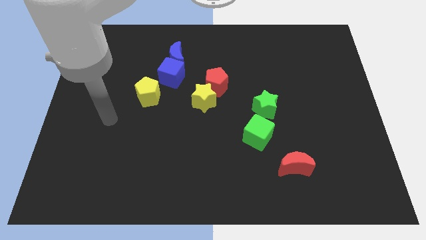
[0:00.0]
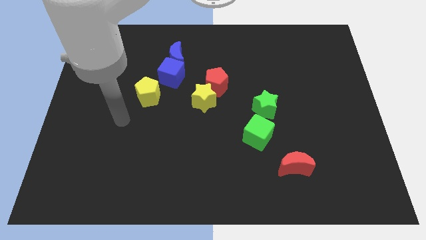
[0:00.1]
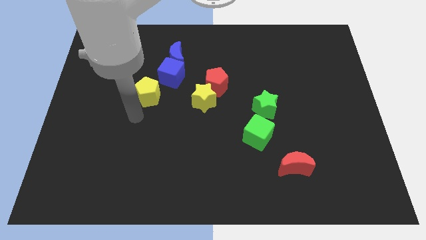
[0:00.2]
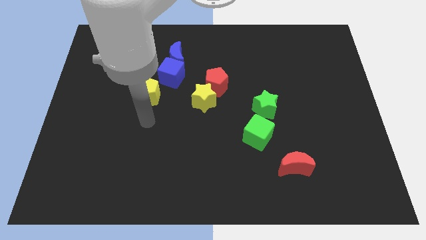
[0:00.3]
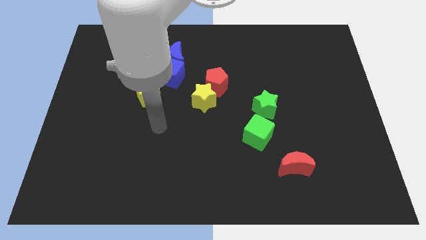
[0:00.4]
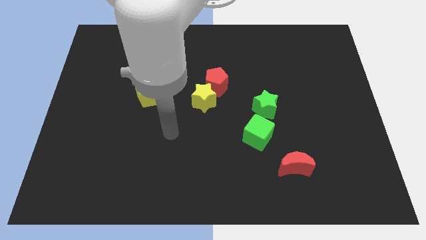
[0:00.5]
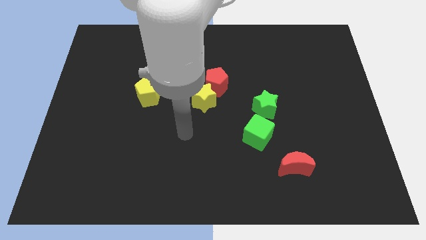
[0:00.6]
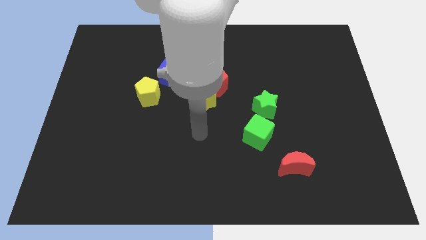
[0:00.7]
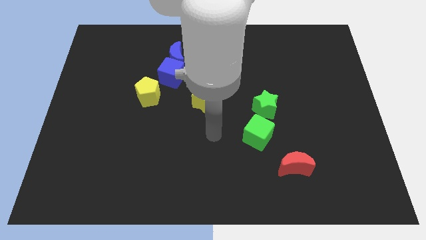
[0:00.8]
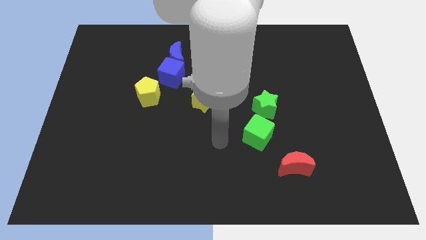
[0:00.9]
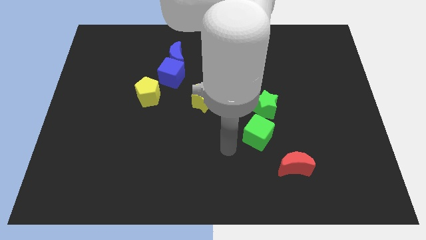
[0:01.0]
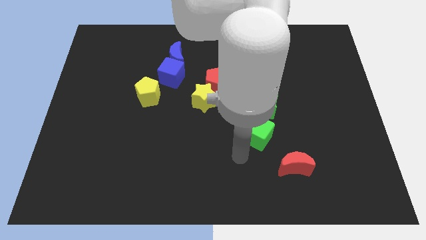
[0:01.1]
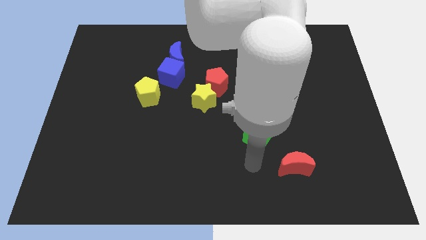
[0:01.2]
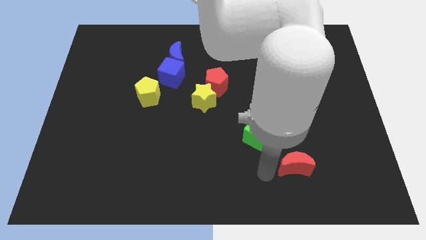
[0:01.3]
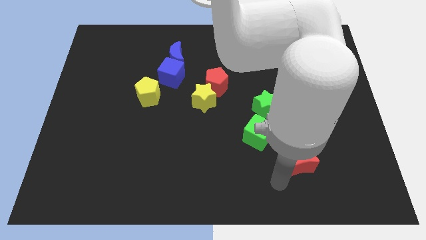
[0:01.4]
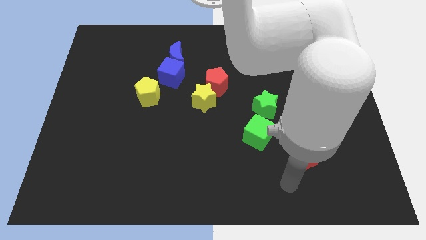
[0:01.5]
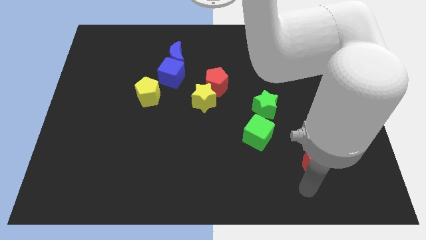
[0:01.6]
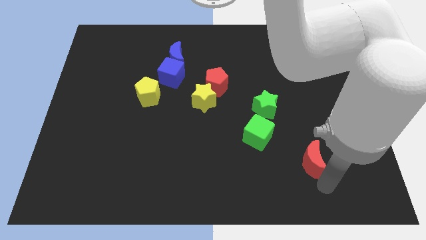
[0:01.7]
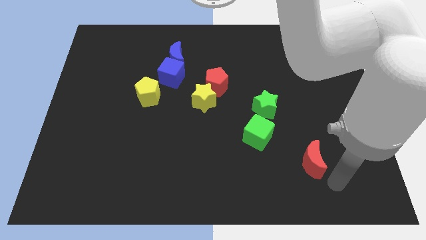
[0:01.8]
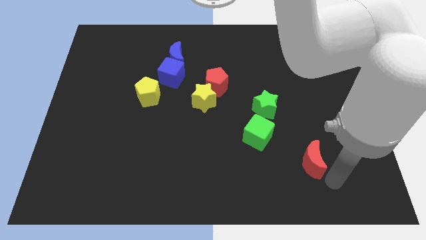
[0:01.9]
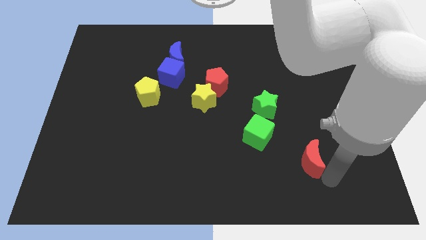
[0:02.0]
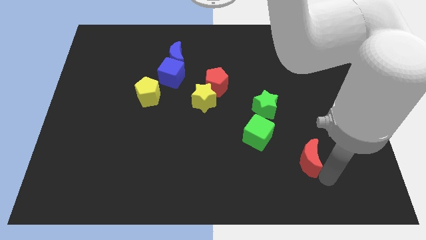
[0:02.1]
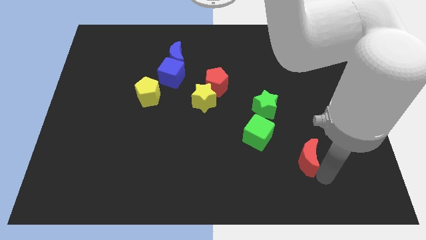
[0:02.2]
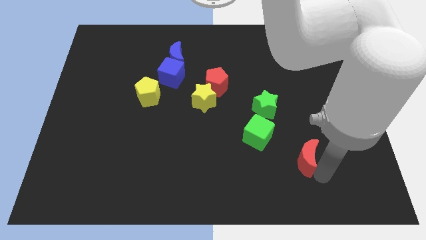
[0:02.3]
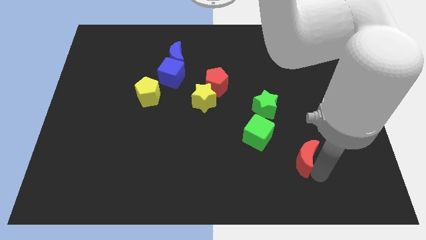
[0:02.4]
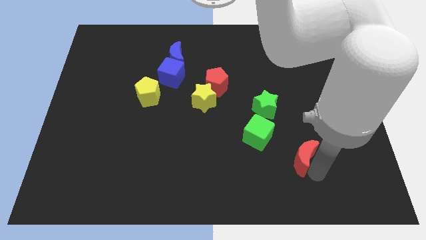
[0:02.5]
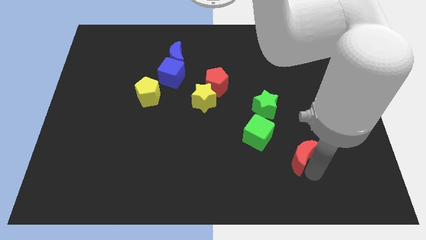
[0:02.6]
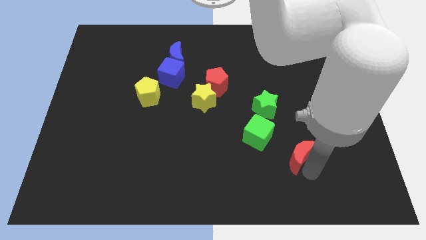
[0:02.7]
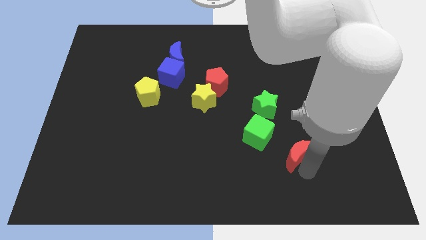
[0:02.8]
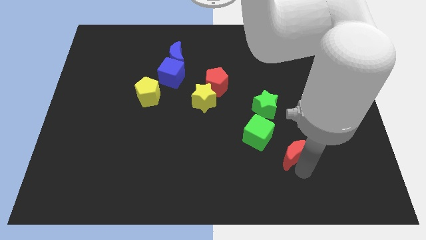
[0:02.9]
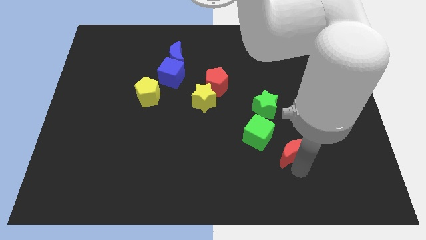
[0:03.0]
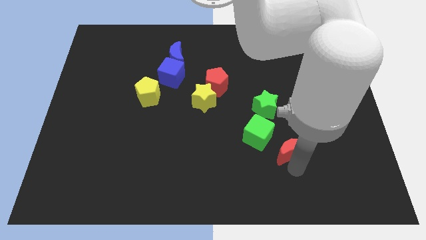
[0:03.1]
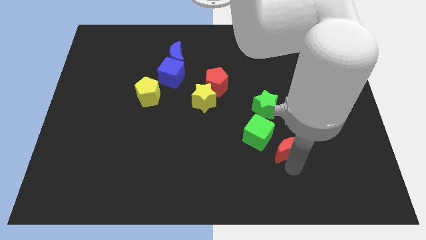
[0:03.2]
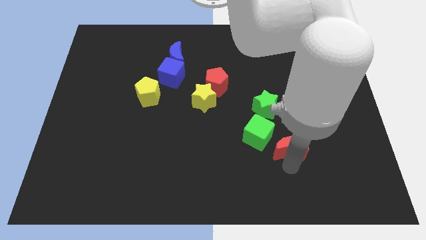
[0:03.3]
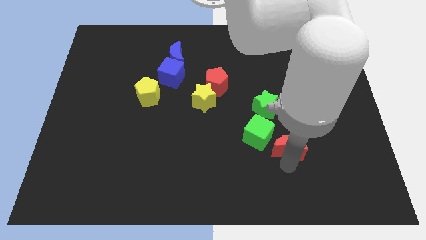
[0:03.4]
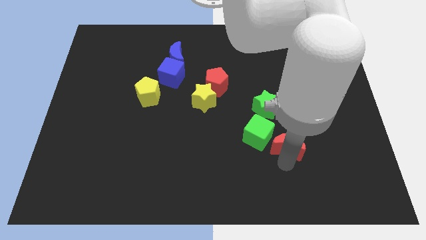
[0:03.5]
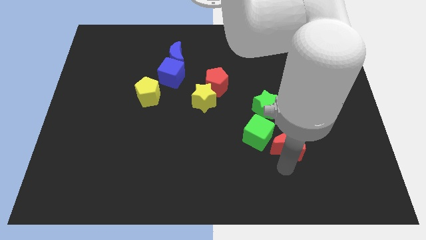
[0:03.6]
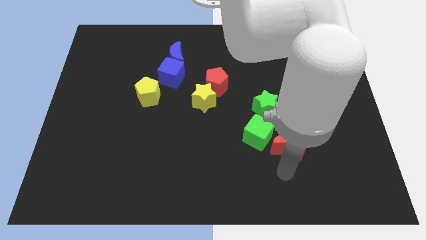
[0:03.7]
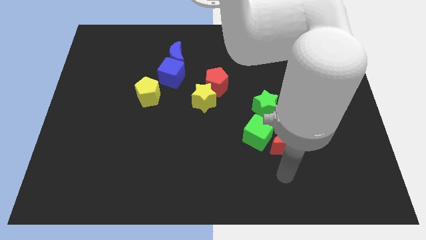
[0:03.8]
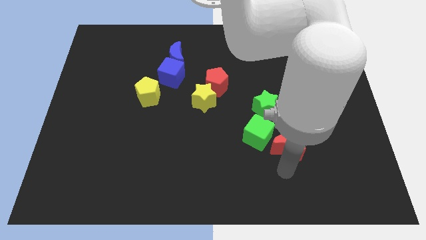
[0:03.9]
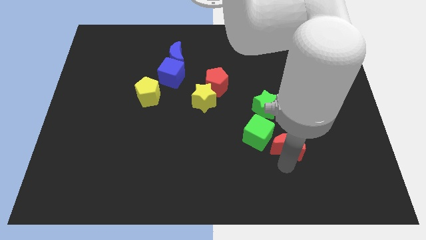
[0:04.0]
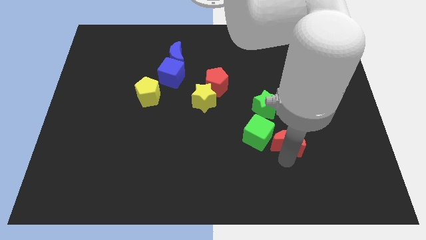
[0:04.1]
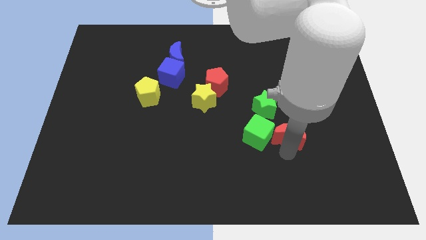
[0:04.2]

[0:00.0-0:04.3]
slide the red moon up somewhat

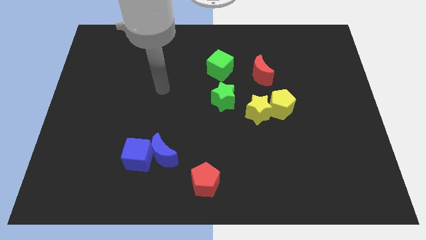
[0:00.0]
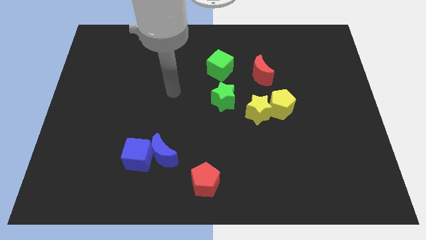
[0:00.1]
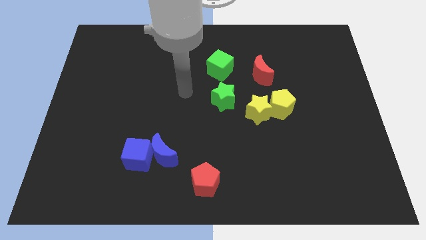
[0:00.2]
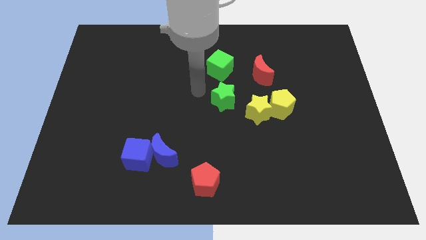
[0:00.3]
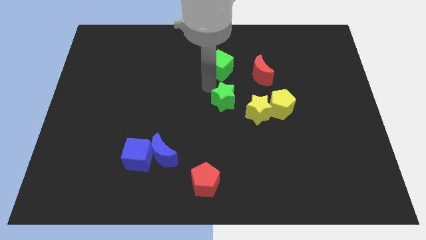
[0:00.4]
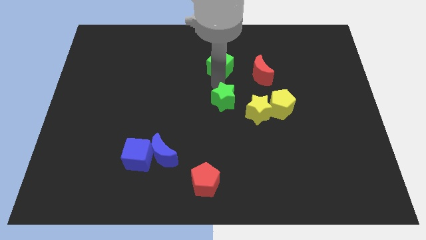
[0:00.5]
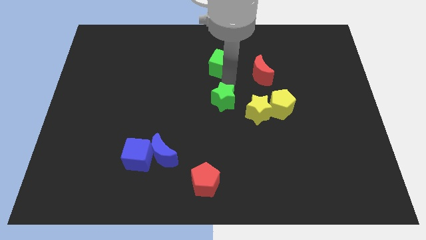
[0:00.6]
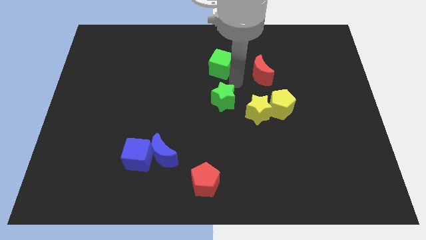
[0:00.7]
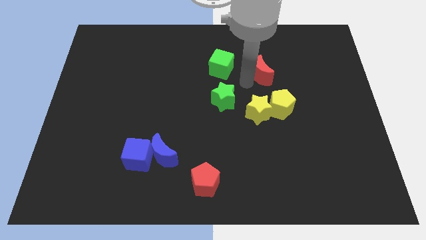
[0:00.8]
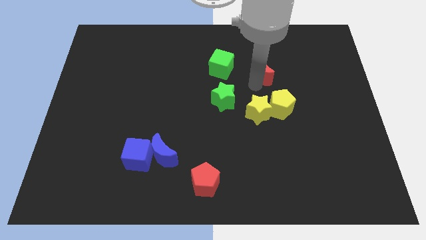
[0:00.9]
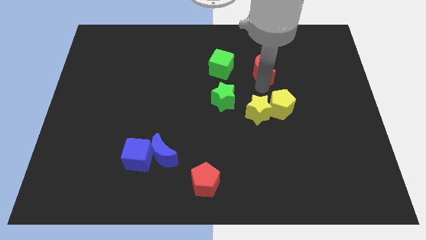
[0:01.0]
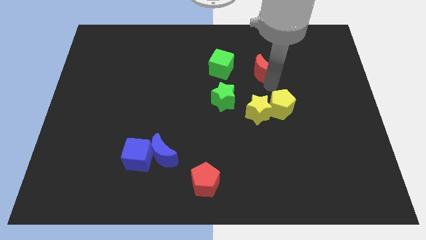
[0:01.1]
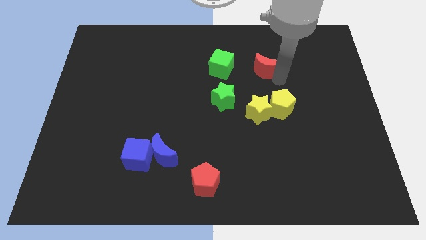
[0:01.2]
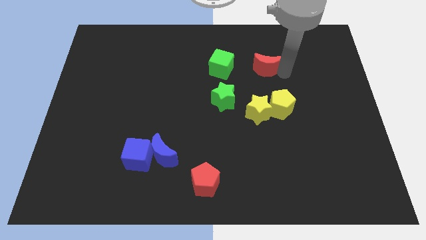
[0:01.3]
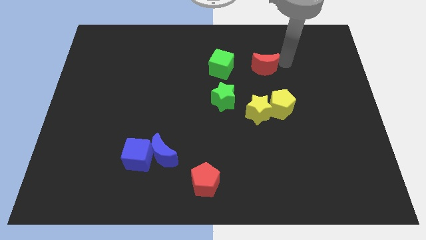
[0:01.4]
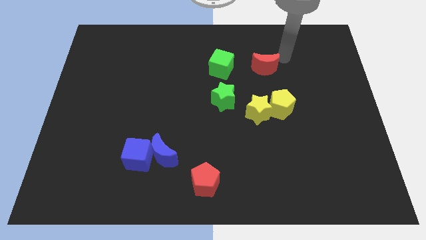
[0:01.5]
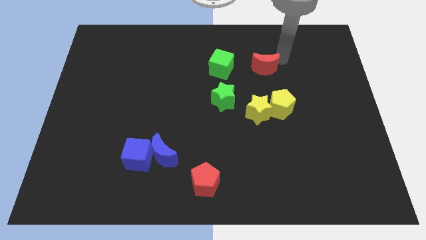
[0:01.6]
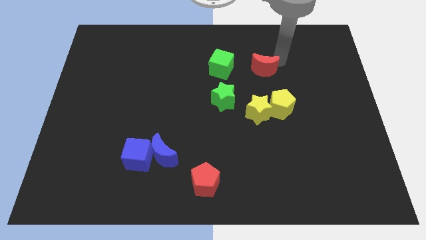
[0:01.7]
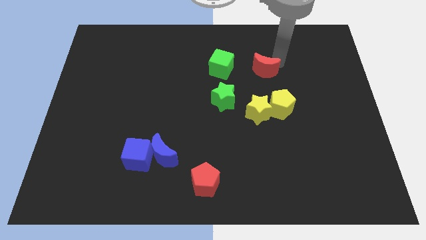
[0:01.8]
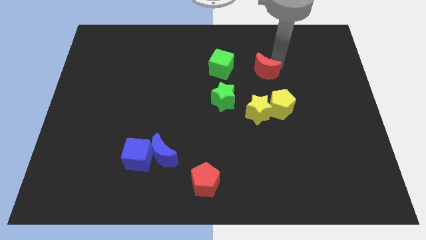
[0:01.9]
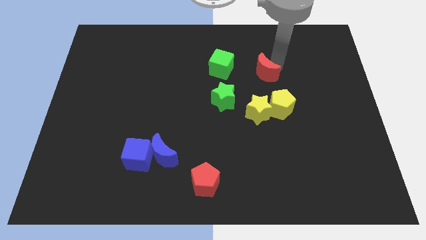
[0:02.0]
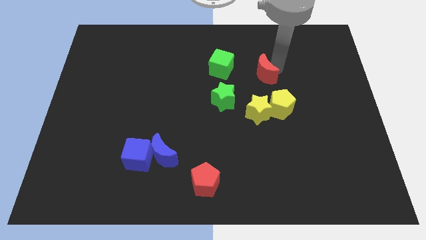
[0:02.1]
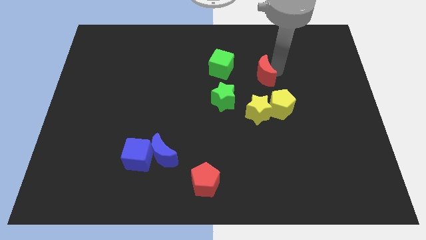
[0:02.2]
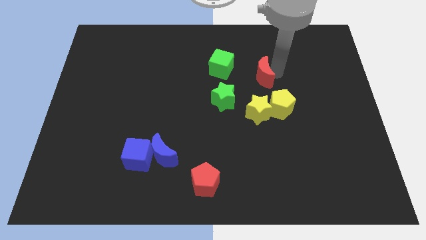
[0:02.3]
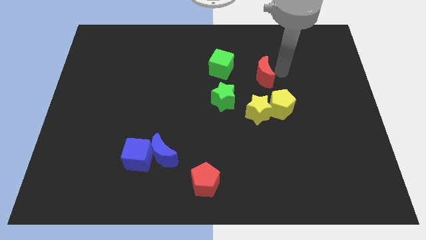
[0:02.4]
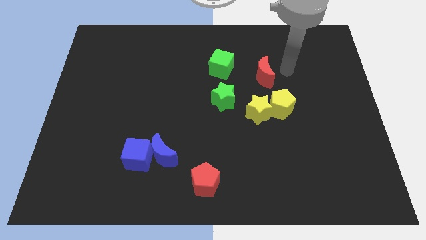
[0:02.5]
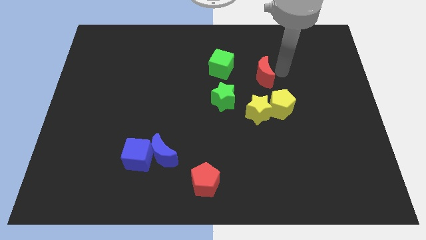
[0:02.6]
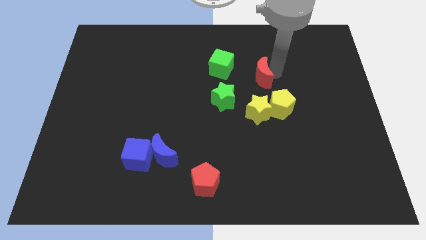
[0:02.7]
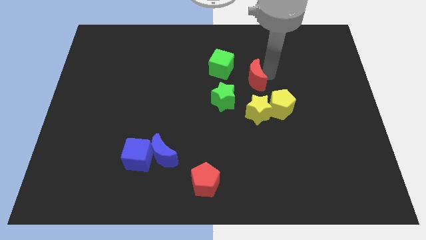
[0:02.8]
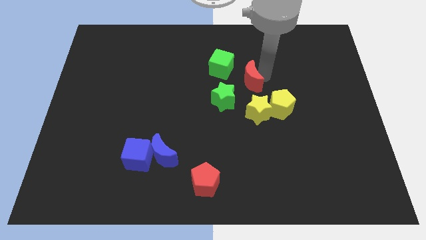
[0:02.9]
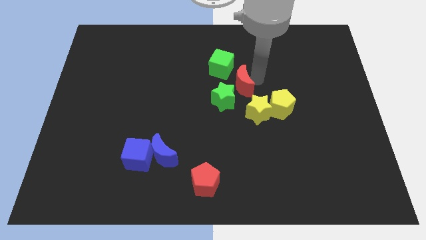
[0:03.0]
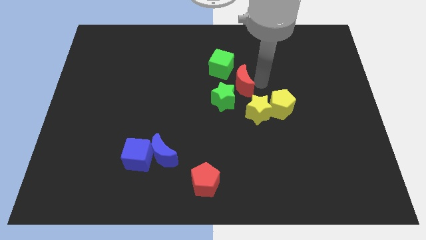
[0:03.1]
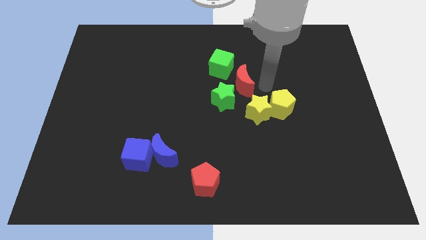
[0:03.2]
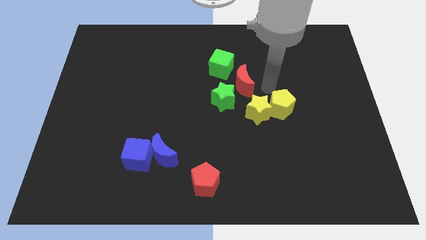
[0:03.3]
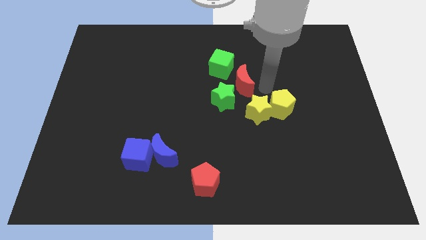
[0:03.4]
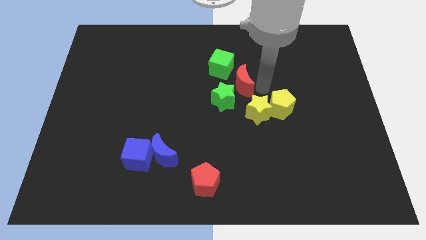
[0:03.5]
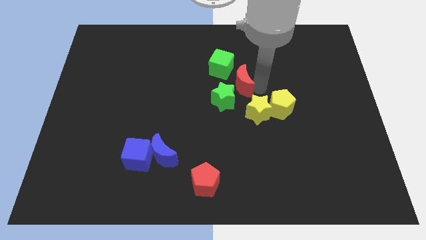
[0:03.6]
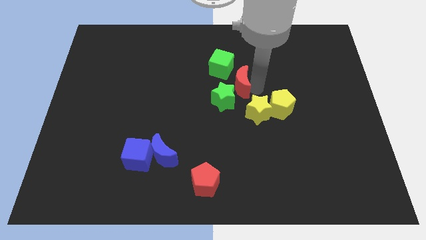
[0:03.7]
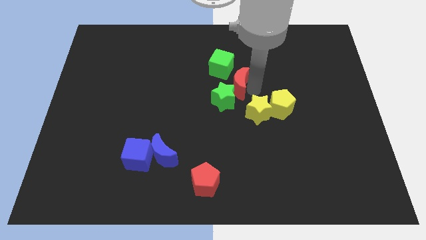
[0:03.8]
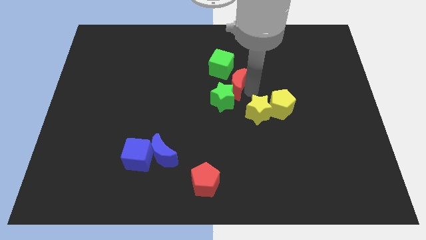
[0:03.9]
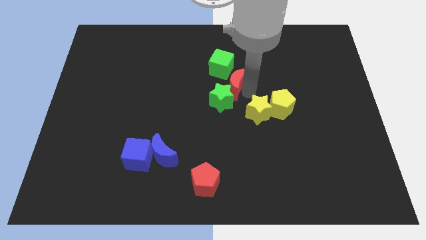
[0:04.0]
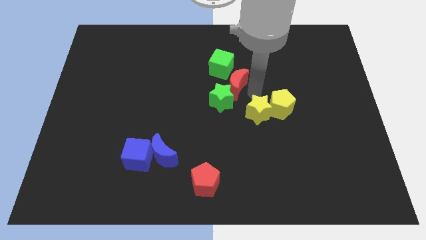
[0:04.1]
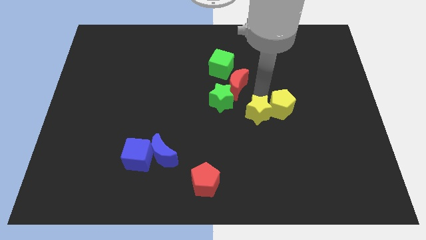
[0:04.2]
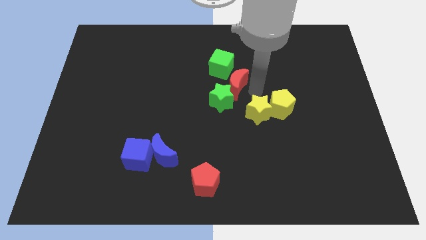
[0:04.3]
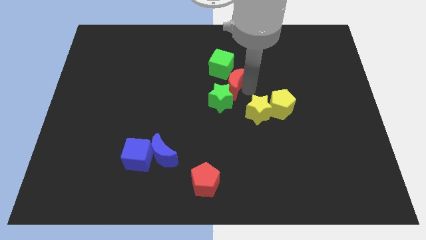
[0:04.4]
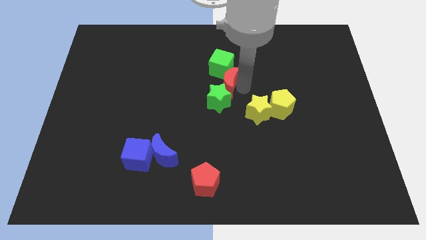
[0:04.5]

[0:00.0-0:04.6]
slide the red moon left a bit
